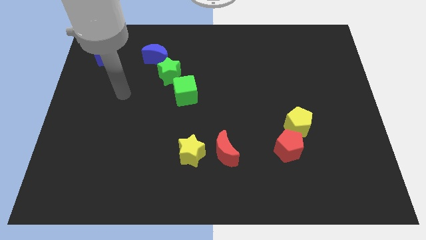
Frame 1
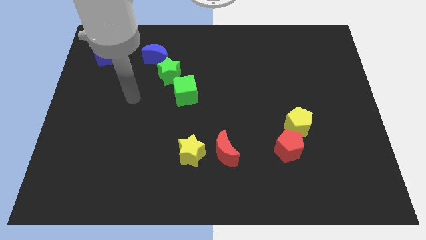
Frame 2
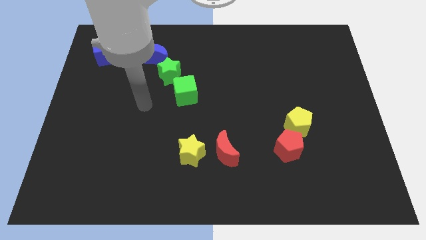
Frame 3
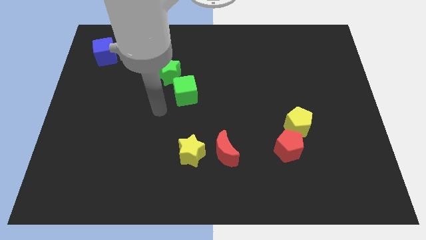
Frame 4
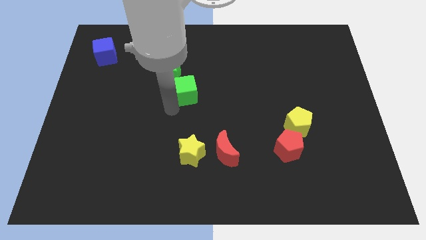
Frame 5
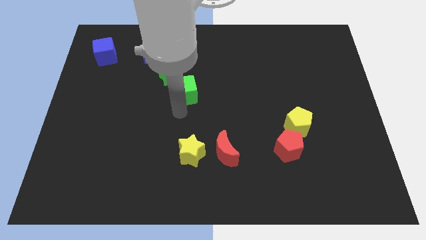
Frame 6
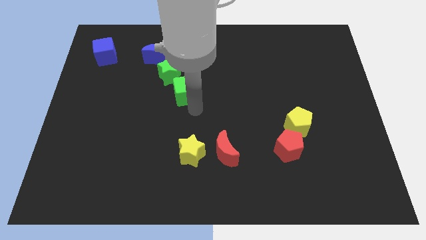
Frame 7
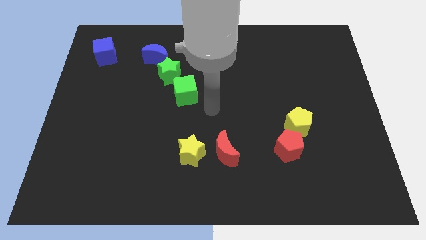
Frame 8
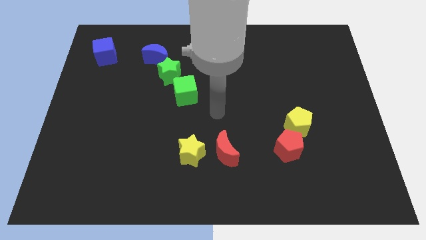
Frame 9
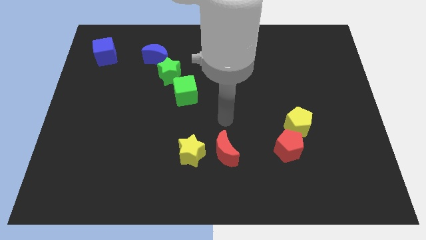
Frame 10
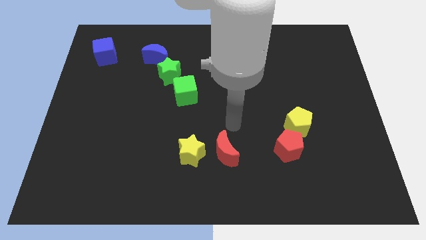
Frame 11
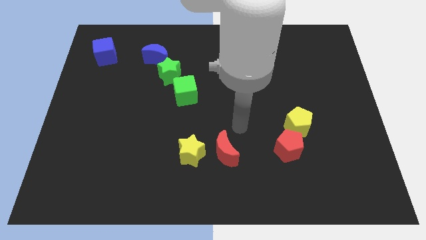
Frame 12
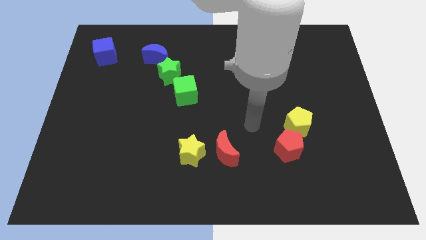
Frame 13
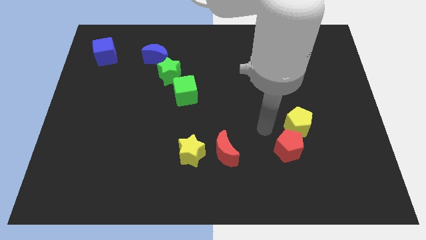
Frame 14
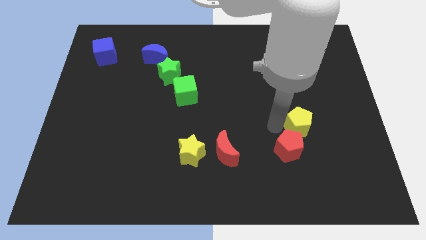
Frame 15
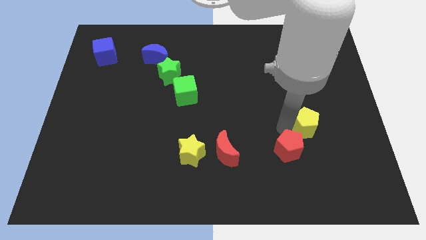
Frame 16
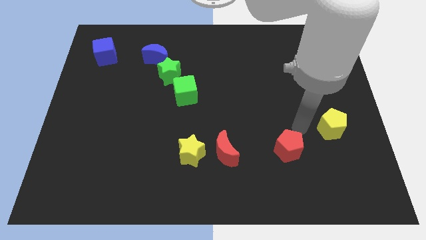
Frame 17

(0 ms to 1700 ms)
separate the red pentagon from the yellow pentagon

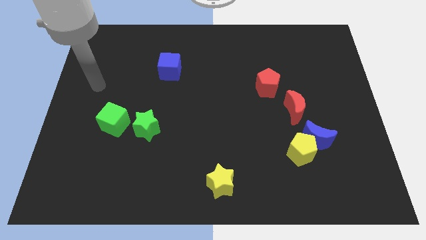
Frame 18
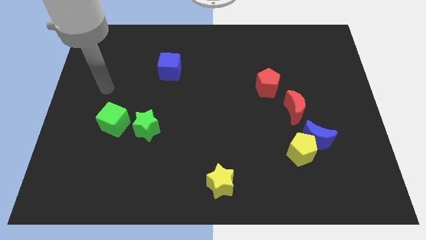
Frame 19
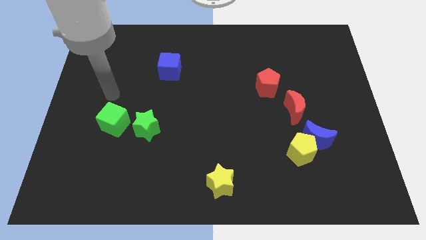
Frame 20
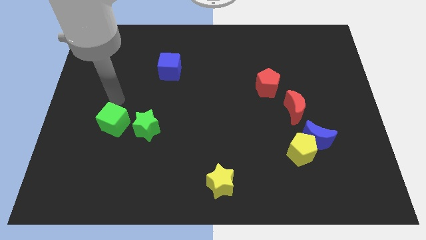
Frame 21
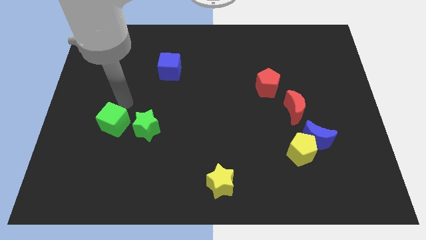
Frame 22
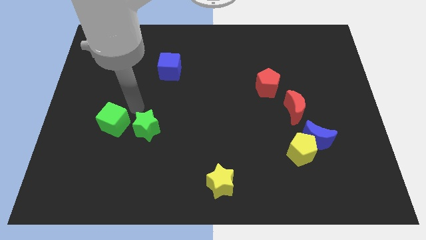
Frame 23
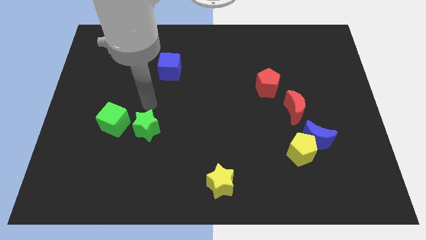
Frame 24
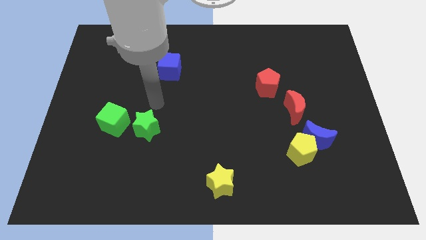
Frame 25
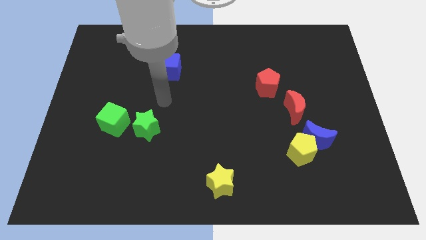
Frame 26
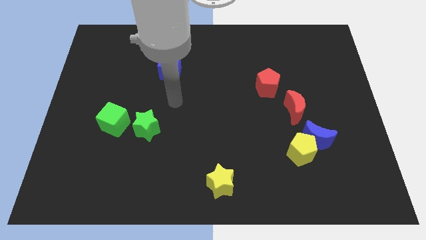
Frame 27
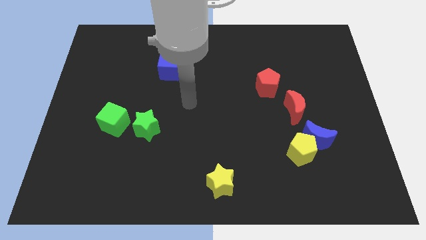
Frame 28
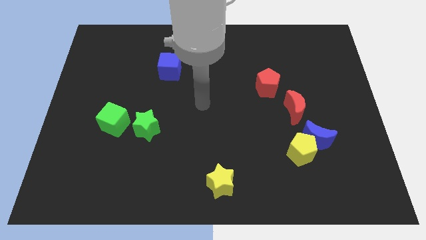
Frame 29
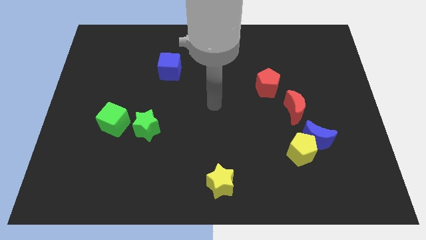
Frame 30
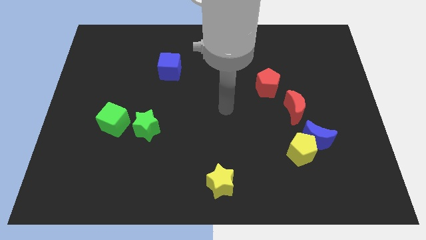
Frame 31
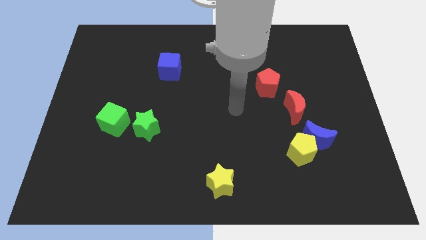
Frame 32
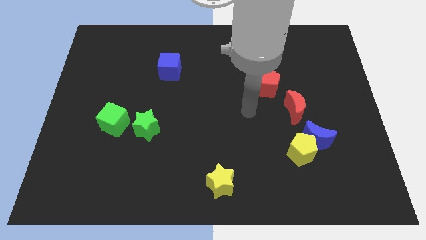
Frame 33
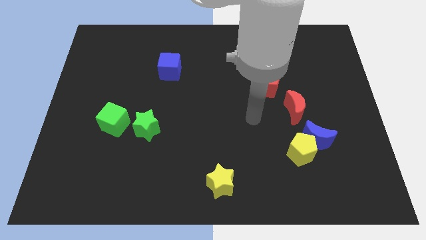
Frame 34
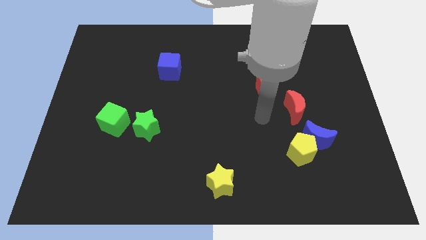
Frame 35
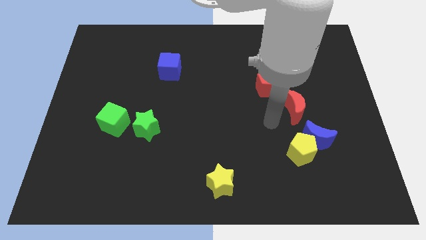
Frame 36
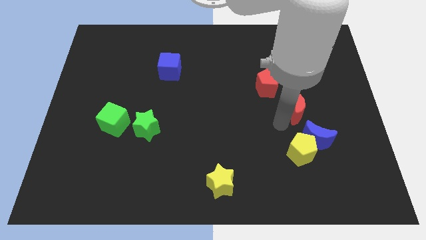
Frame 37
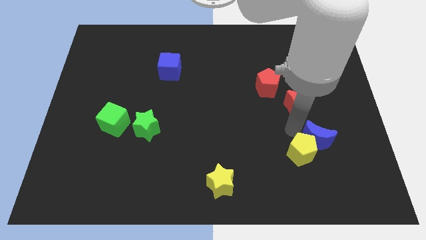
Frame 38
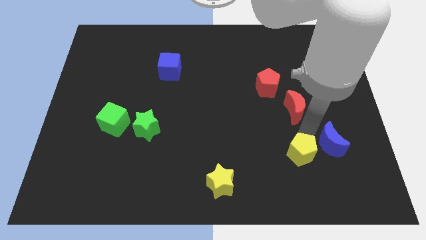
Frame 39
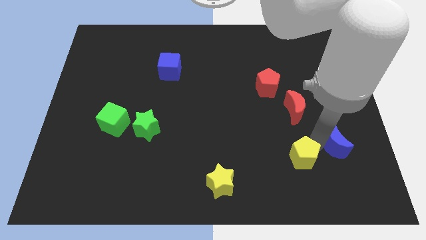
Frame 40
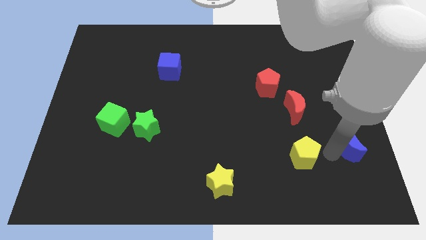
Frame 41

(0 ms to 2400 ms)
pull the yellow pentagon apart from the blue moon

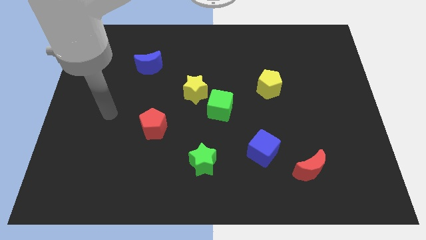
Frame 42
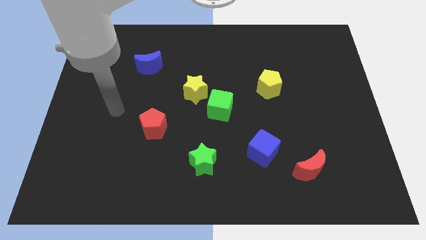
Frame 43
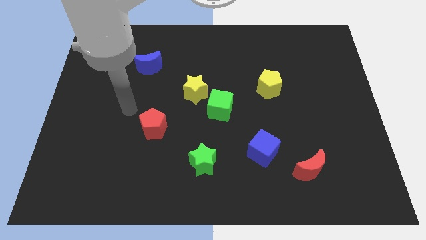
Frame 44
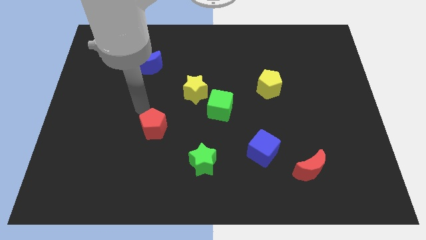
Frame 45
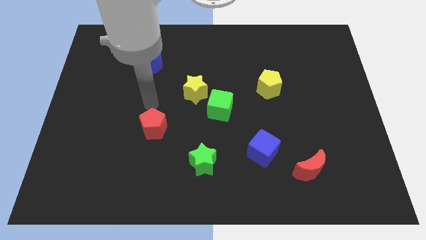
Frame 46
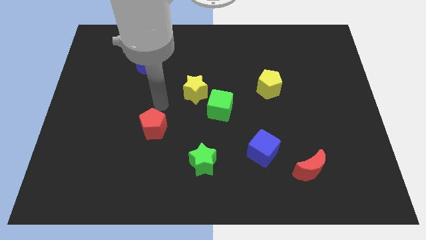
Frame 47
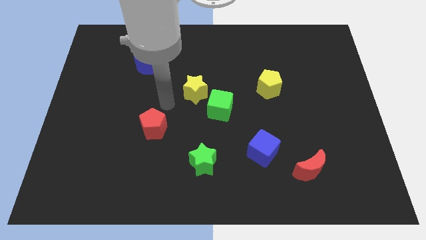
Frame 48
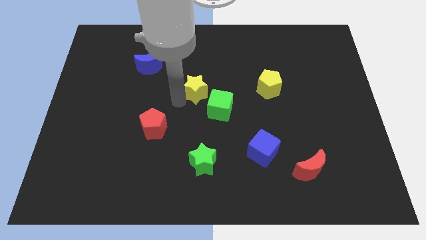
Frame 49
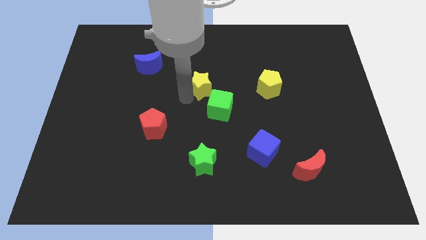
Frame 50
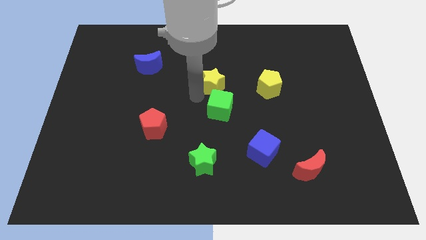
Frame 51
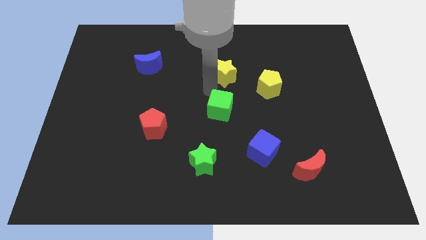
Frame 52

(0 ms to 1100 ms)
move the green cube away from the yellow star

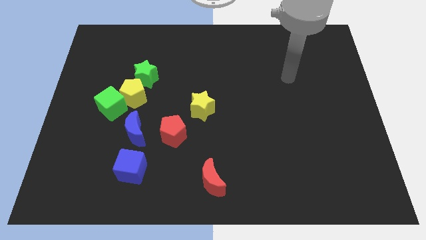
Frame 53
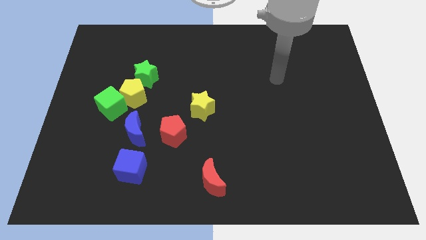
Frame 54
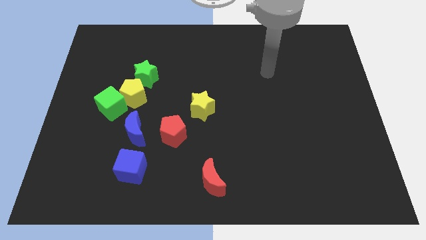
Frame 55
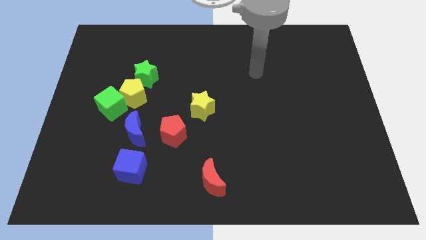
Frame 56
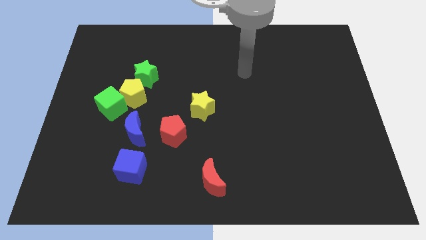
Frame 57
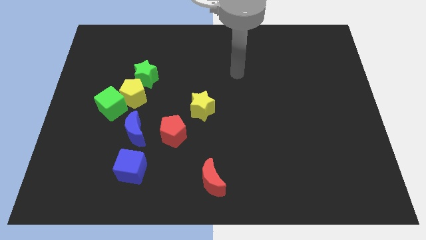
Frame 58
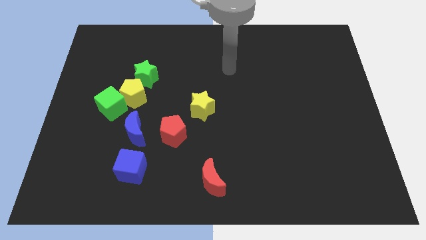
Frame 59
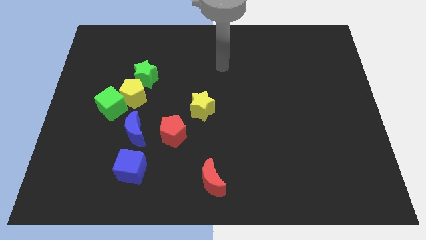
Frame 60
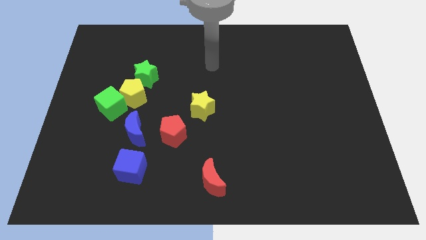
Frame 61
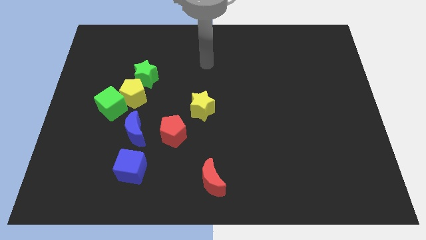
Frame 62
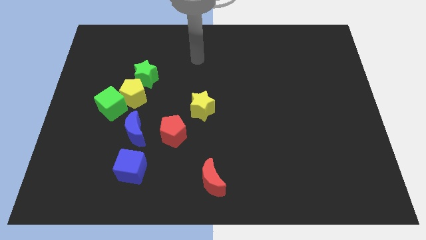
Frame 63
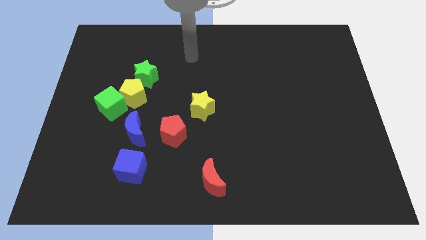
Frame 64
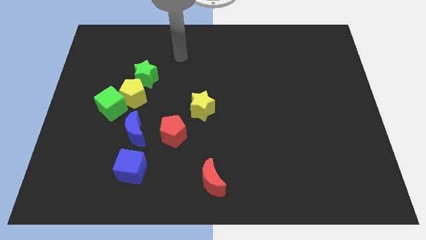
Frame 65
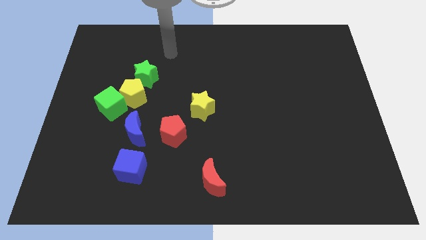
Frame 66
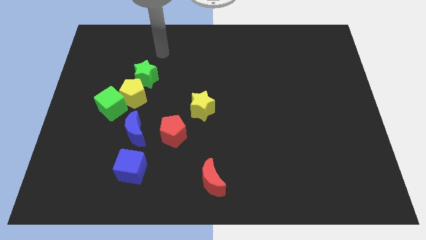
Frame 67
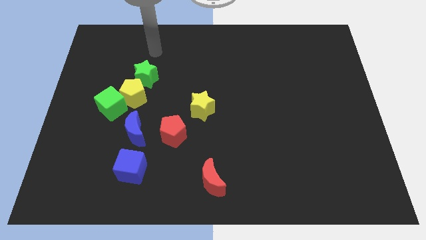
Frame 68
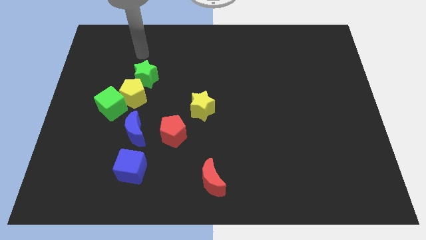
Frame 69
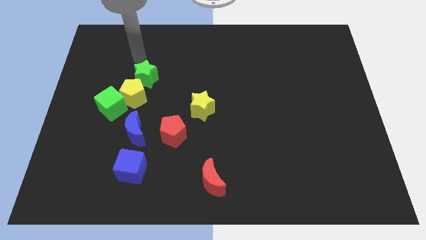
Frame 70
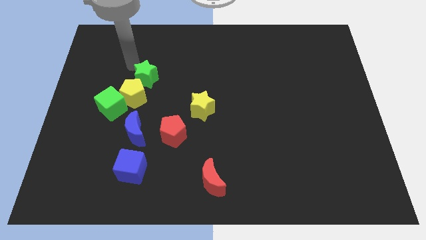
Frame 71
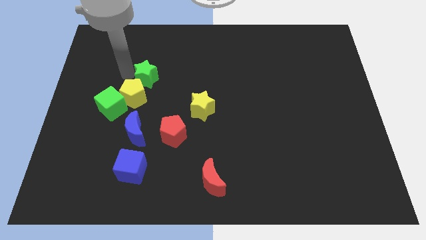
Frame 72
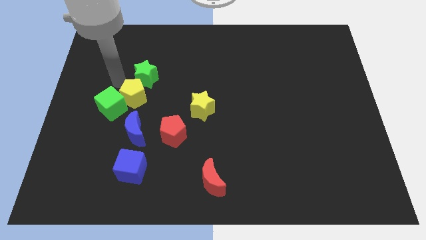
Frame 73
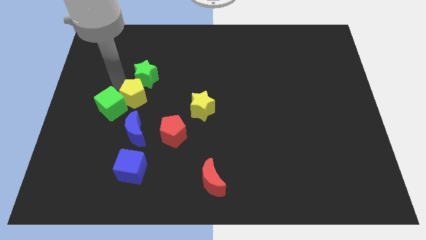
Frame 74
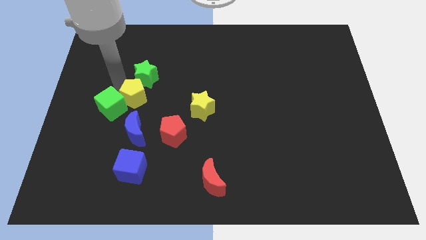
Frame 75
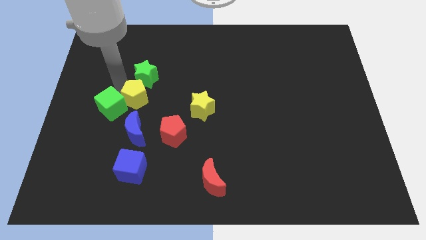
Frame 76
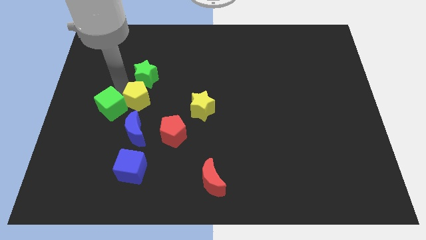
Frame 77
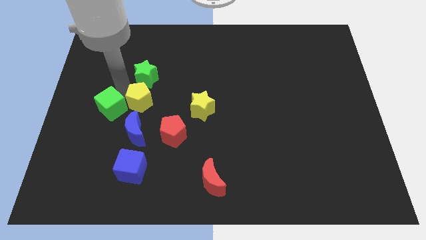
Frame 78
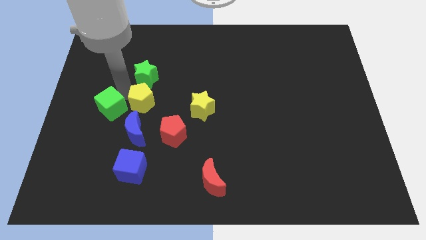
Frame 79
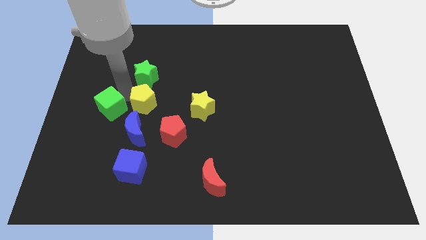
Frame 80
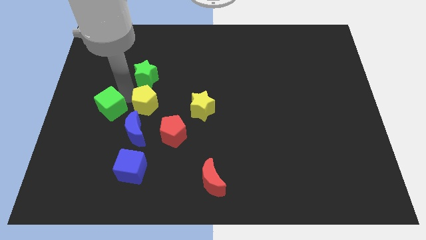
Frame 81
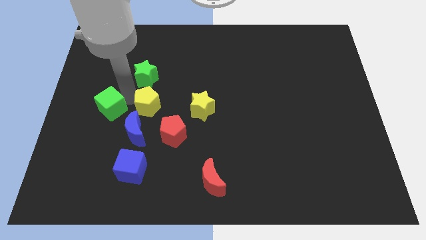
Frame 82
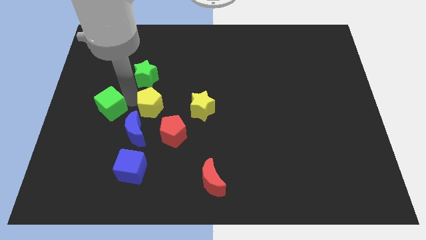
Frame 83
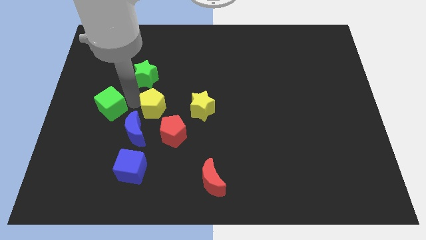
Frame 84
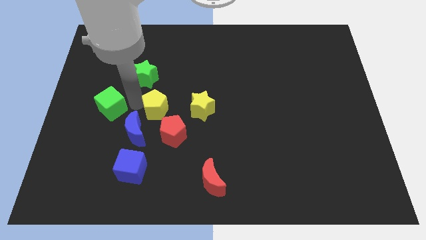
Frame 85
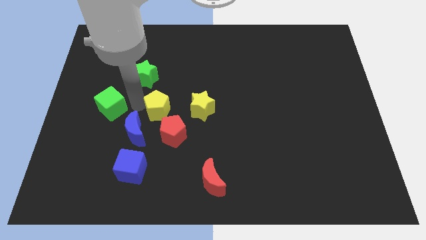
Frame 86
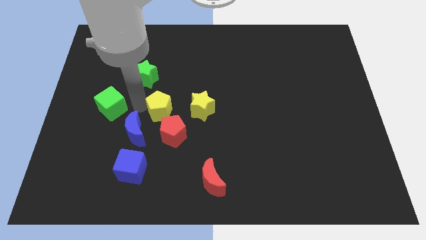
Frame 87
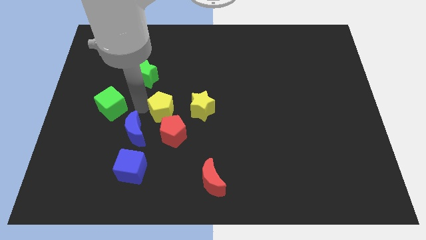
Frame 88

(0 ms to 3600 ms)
move the yellow pentagon away from the green cube and green star

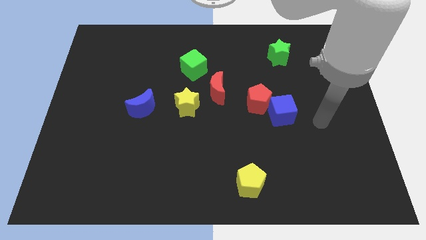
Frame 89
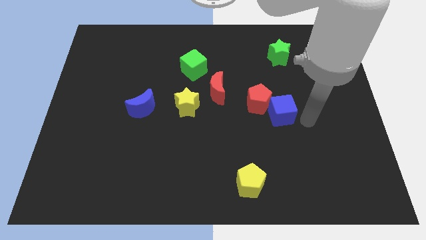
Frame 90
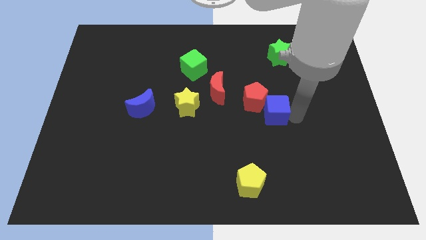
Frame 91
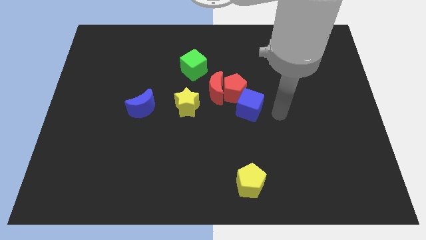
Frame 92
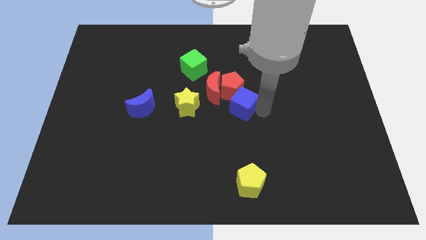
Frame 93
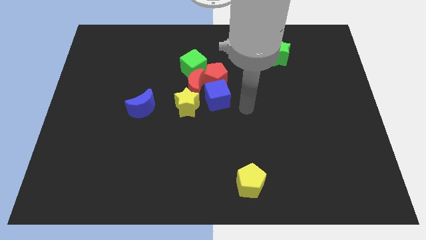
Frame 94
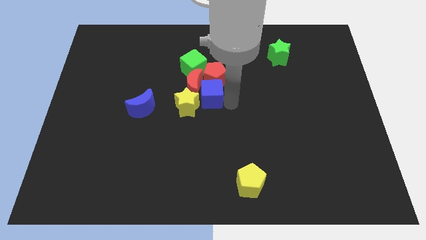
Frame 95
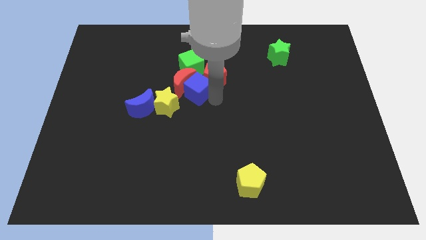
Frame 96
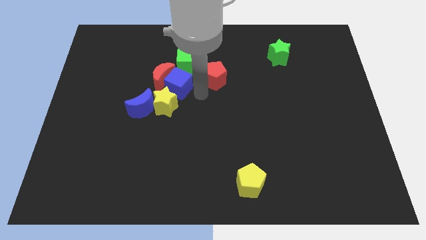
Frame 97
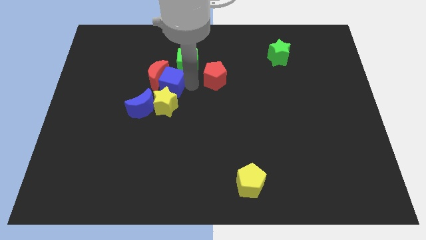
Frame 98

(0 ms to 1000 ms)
move the red pentagon away from the blue cube
